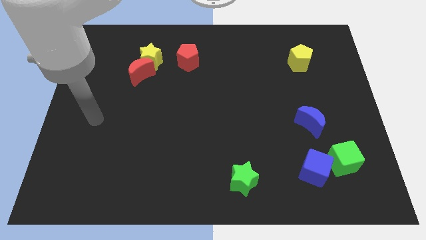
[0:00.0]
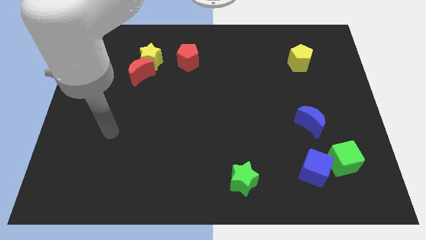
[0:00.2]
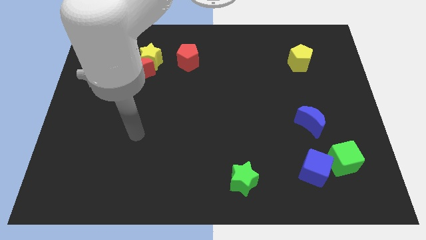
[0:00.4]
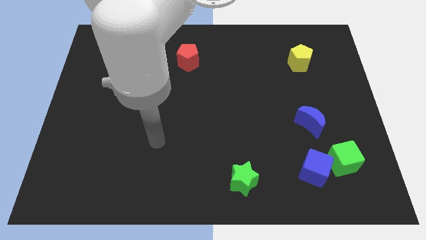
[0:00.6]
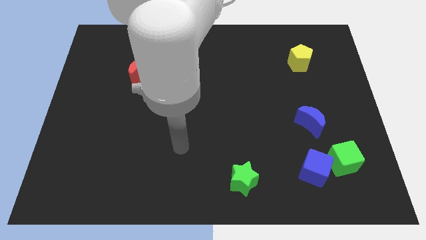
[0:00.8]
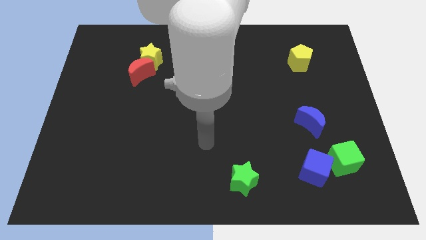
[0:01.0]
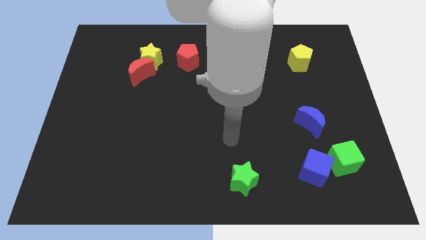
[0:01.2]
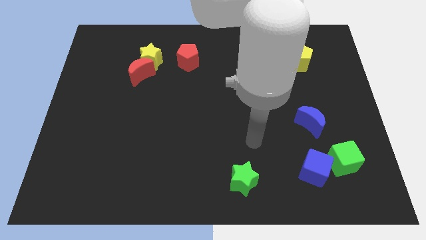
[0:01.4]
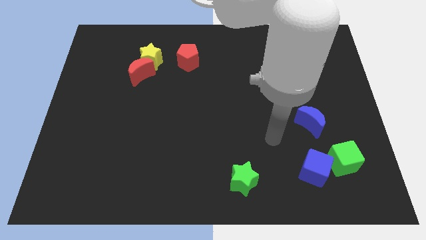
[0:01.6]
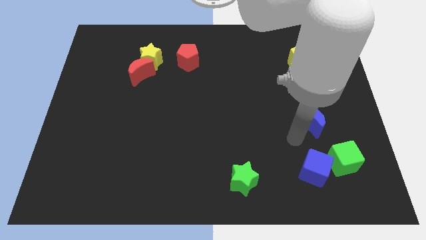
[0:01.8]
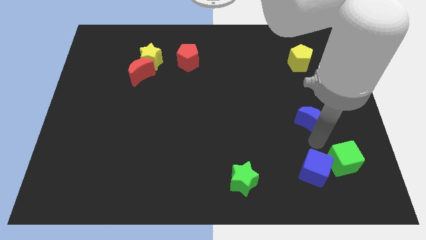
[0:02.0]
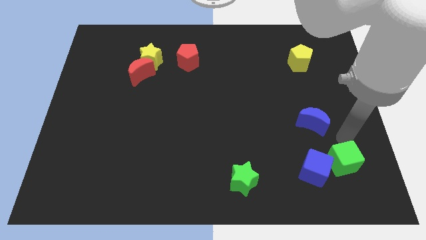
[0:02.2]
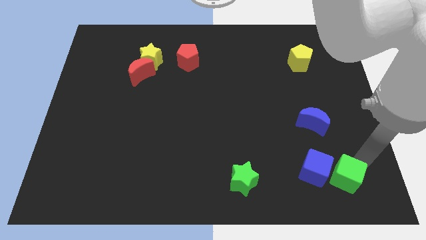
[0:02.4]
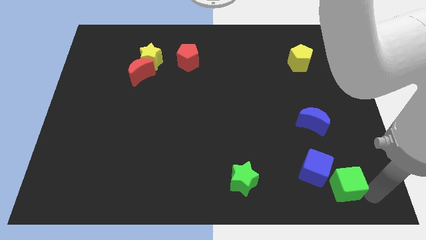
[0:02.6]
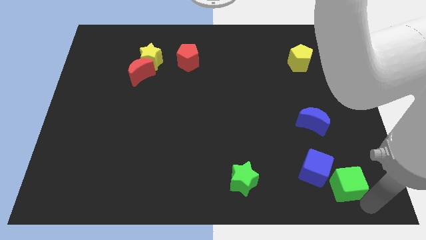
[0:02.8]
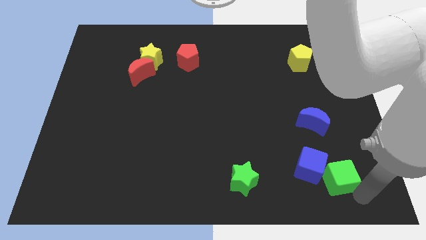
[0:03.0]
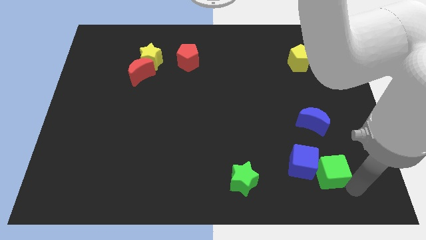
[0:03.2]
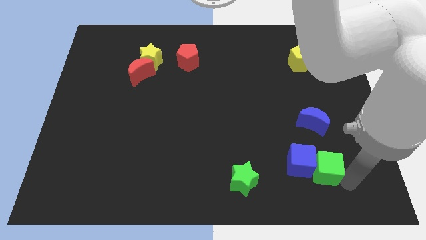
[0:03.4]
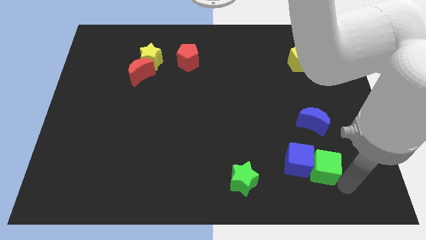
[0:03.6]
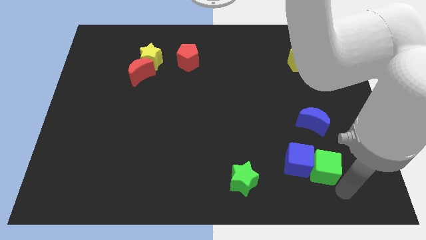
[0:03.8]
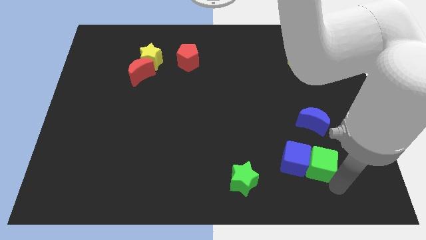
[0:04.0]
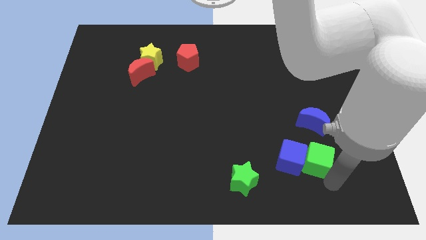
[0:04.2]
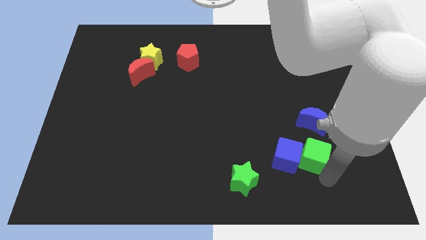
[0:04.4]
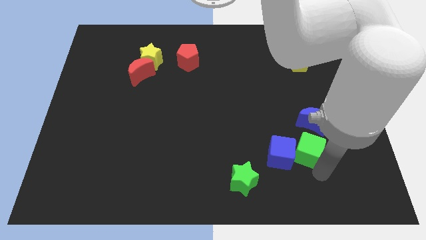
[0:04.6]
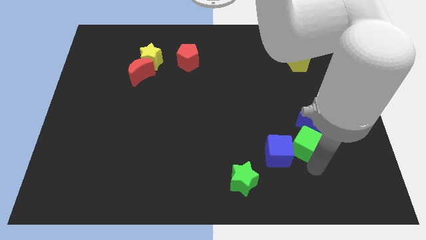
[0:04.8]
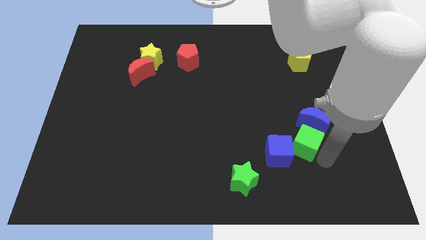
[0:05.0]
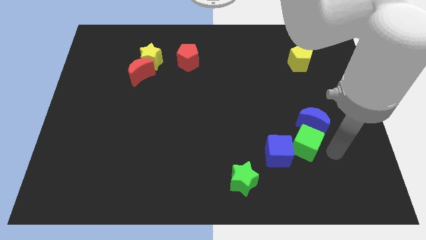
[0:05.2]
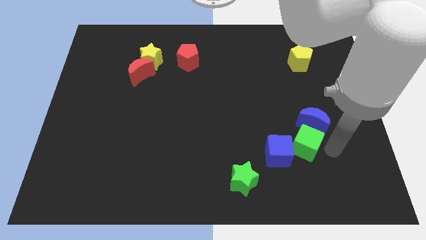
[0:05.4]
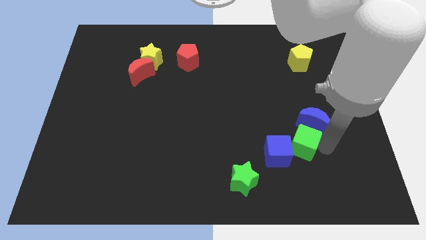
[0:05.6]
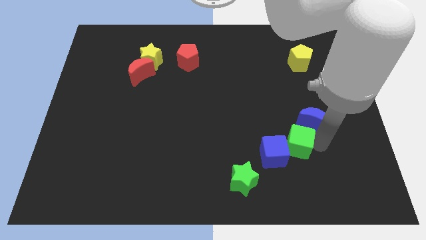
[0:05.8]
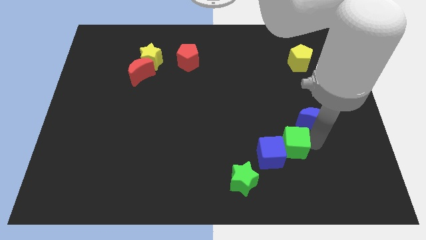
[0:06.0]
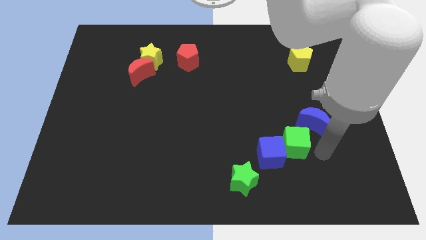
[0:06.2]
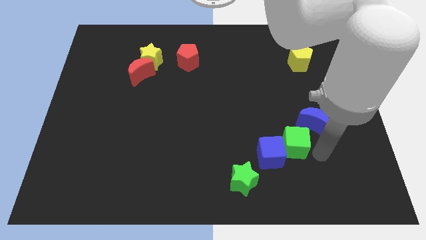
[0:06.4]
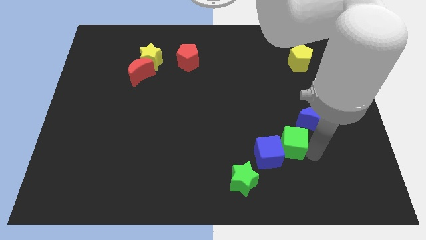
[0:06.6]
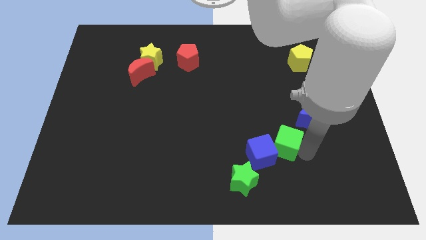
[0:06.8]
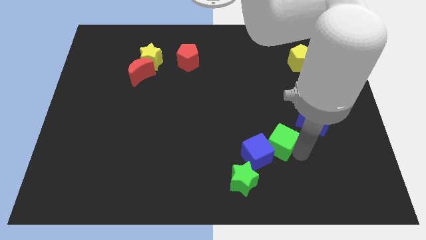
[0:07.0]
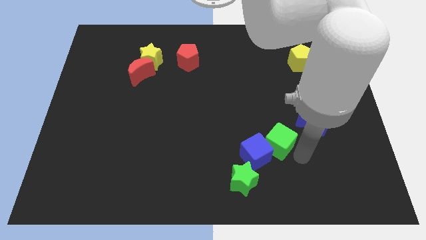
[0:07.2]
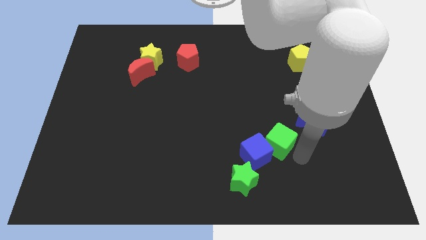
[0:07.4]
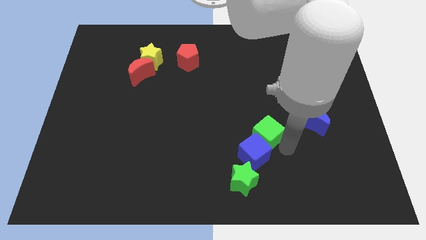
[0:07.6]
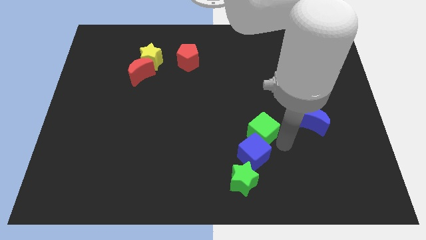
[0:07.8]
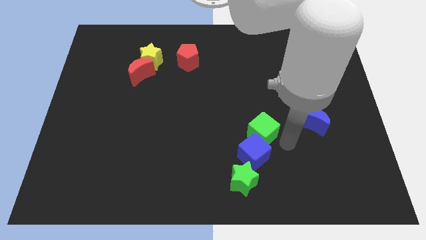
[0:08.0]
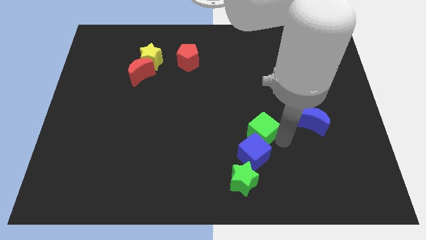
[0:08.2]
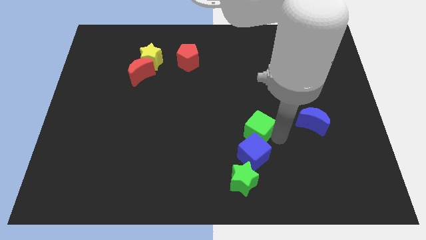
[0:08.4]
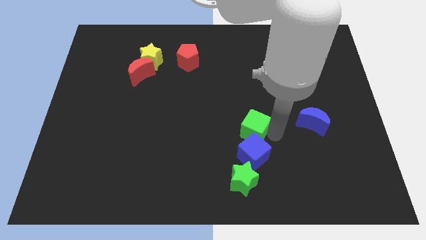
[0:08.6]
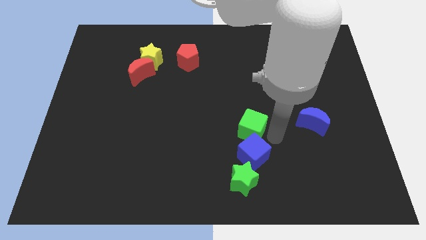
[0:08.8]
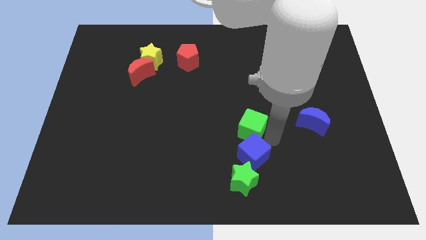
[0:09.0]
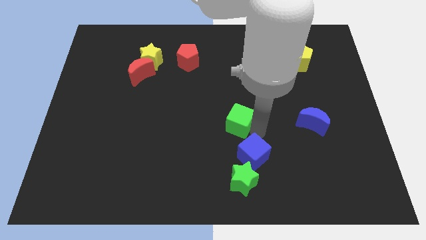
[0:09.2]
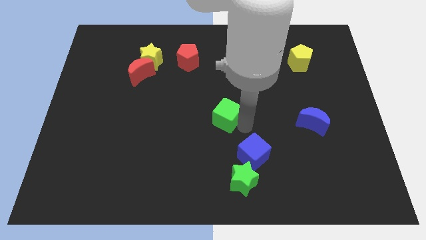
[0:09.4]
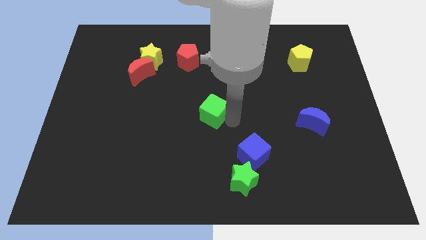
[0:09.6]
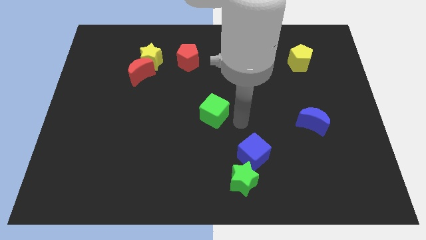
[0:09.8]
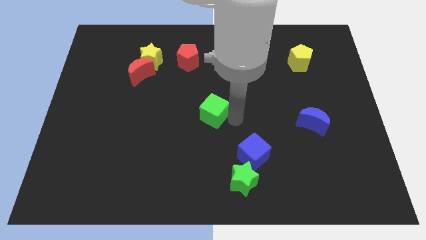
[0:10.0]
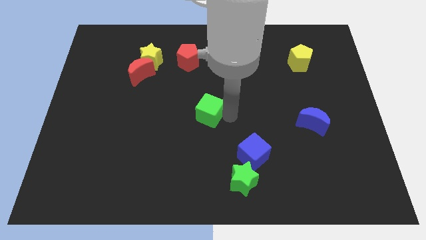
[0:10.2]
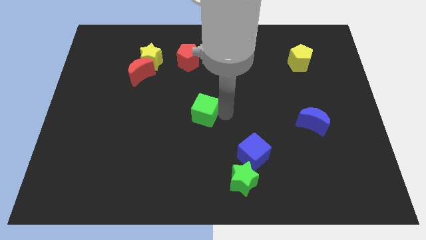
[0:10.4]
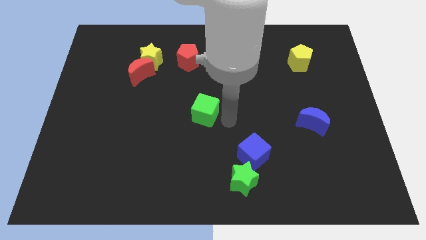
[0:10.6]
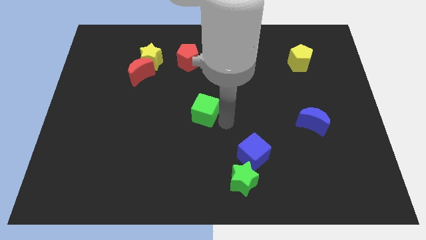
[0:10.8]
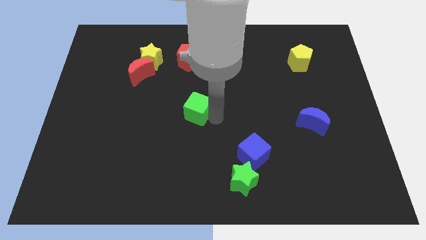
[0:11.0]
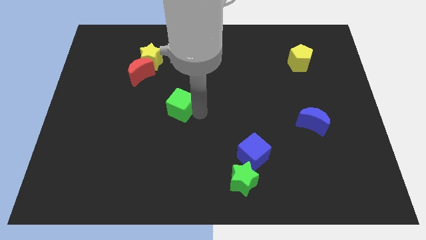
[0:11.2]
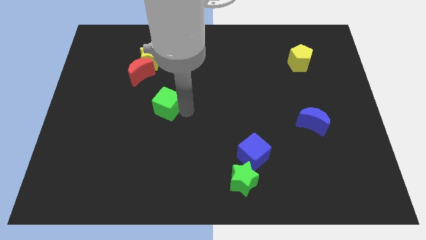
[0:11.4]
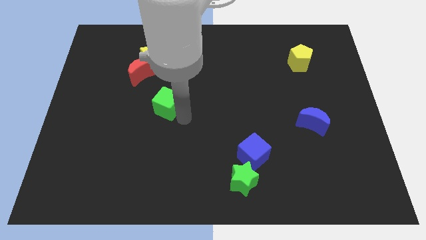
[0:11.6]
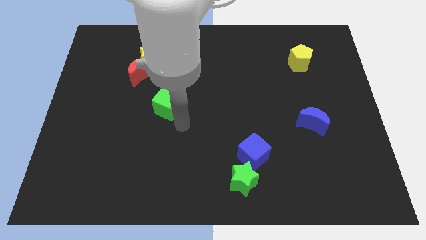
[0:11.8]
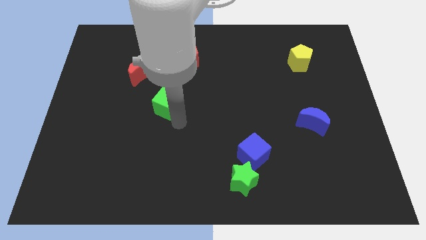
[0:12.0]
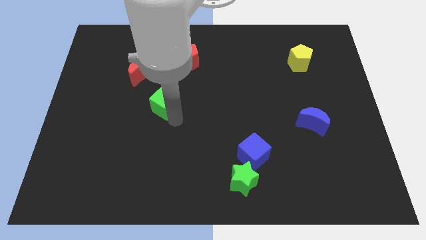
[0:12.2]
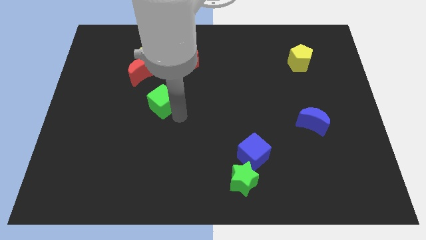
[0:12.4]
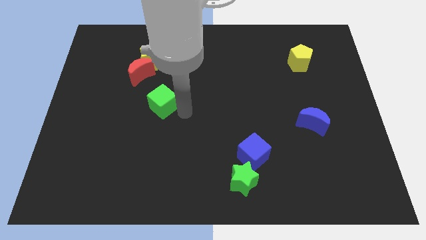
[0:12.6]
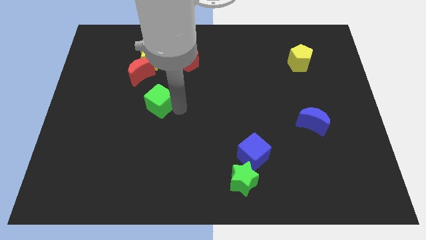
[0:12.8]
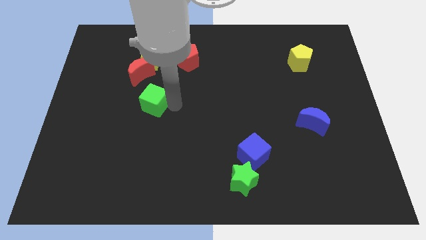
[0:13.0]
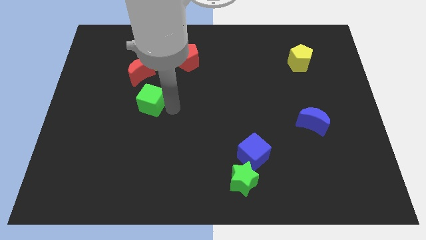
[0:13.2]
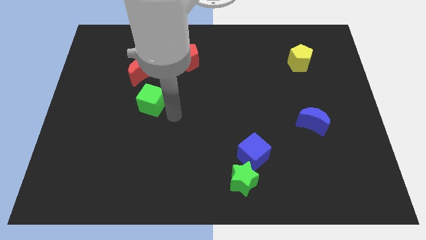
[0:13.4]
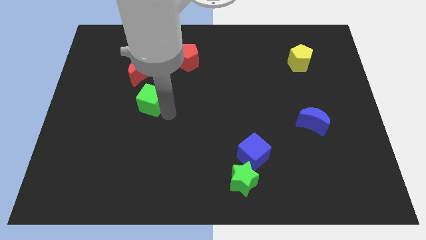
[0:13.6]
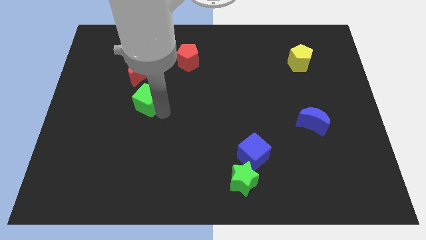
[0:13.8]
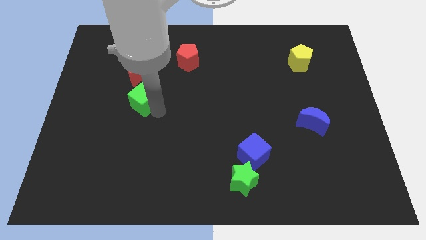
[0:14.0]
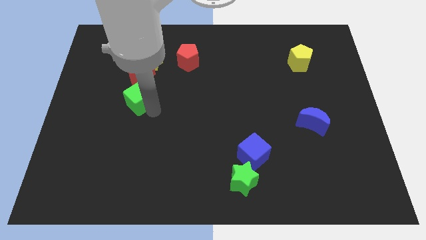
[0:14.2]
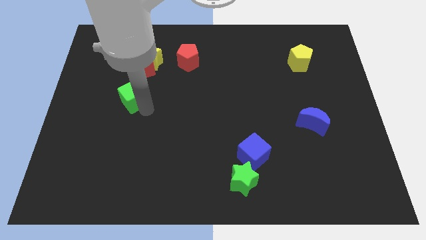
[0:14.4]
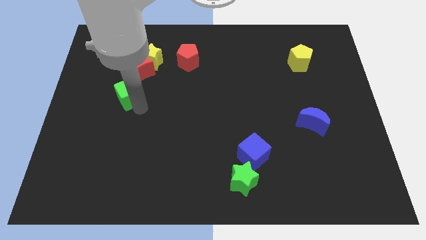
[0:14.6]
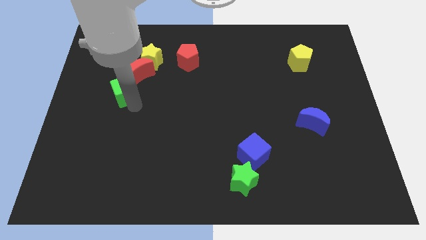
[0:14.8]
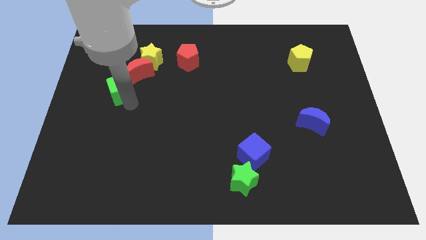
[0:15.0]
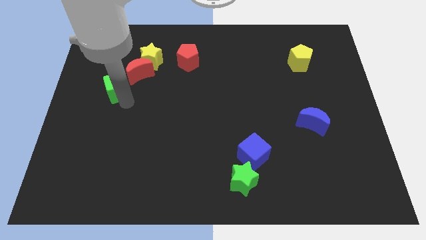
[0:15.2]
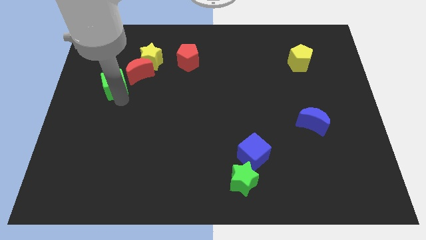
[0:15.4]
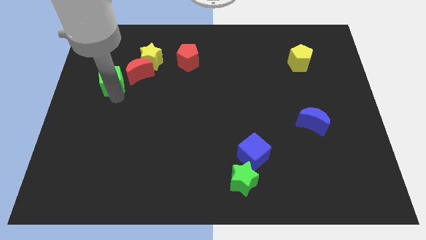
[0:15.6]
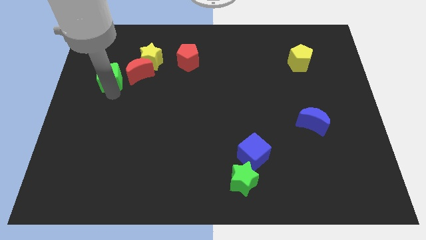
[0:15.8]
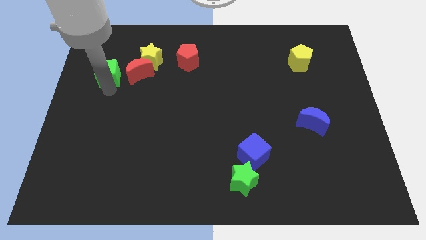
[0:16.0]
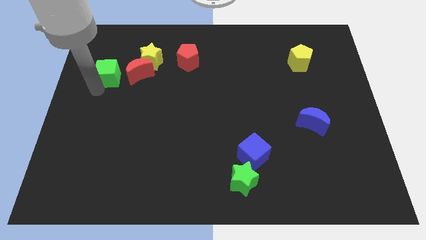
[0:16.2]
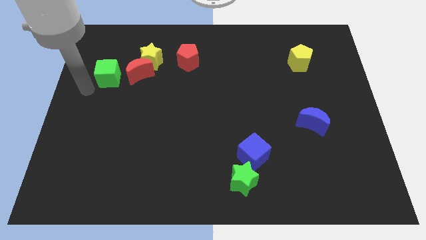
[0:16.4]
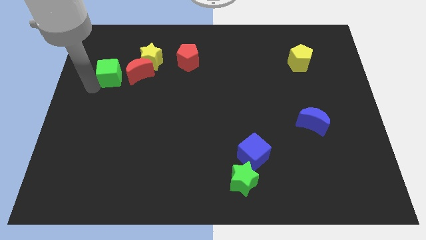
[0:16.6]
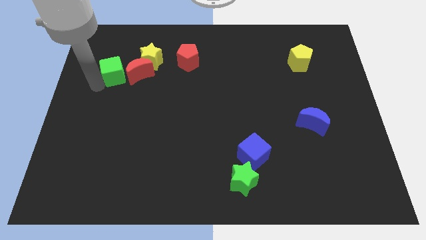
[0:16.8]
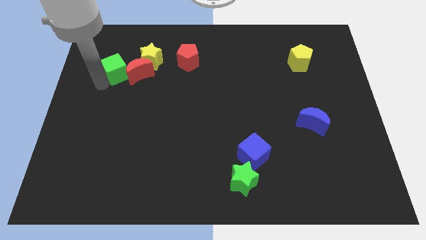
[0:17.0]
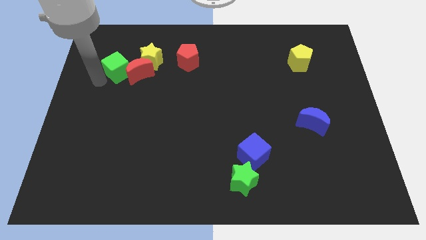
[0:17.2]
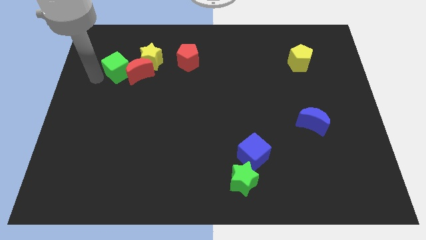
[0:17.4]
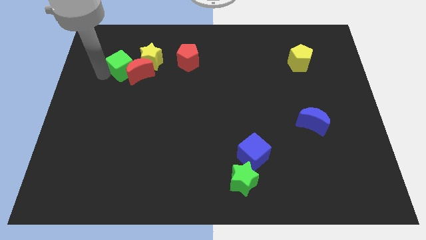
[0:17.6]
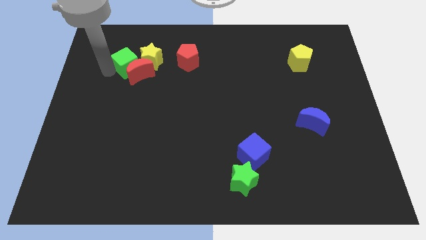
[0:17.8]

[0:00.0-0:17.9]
slide the green cube just left of the red pentagon
